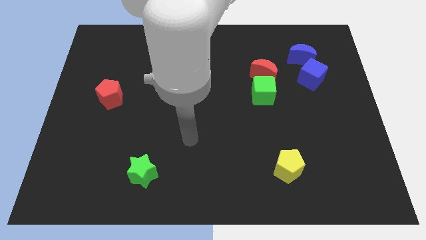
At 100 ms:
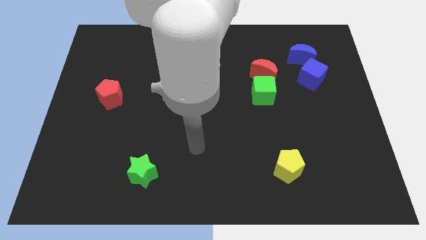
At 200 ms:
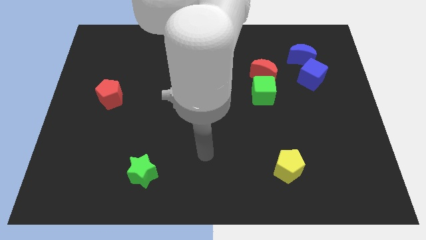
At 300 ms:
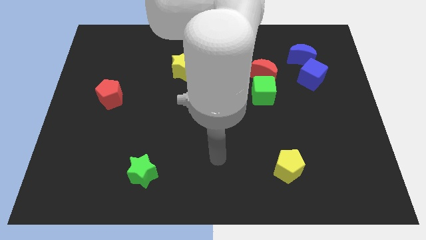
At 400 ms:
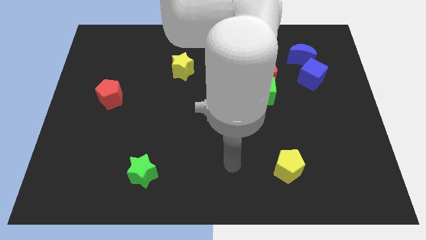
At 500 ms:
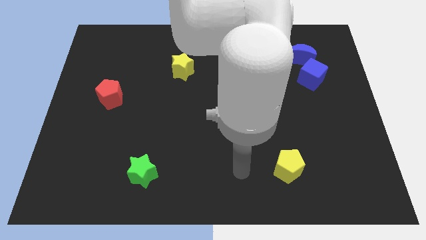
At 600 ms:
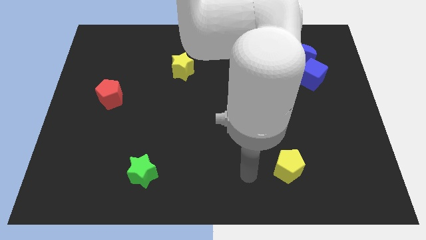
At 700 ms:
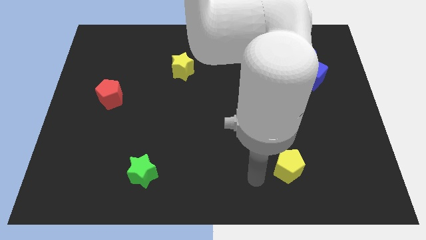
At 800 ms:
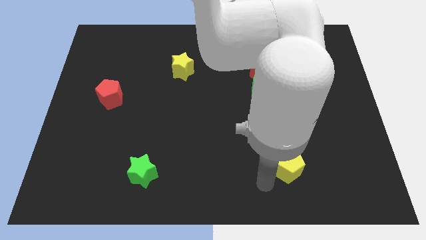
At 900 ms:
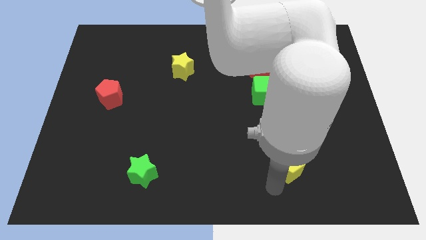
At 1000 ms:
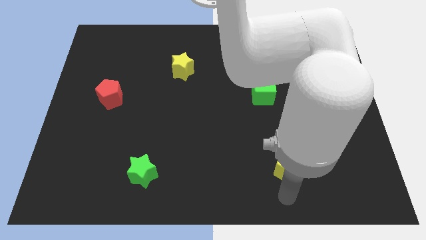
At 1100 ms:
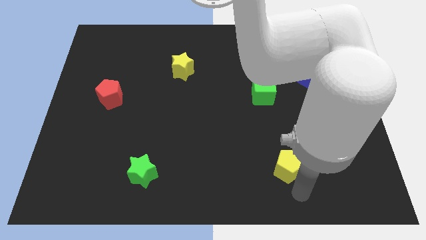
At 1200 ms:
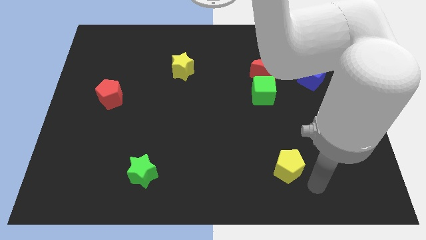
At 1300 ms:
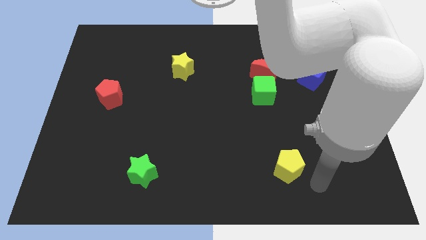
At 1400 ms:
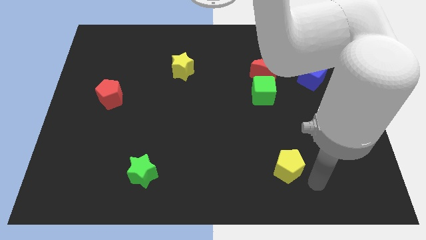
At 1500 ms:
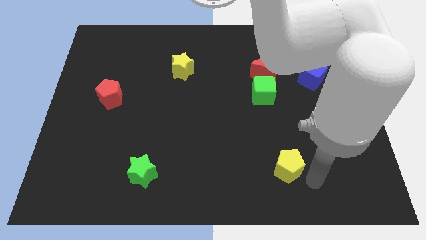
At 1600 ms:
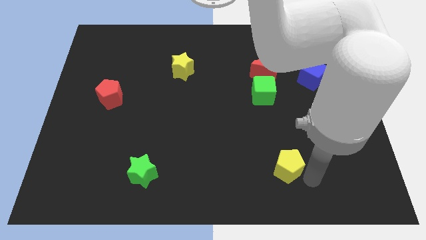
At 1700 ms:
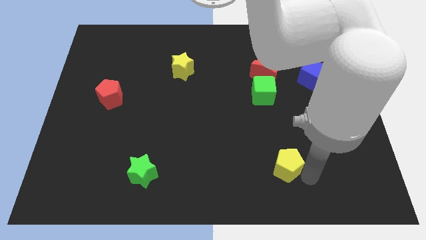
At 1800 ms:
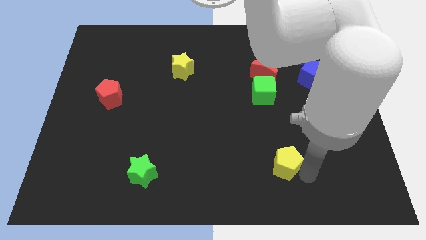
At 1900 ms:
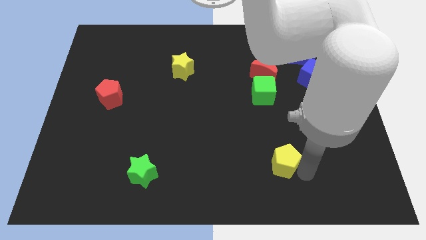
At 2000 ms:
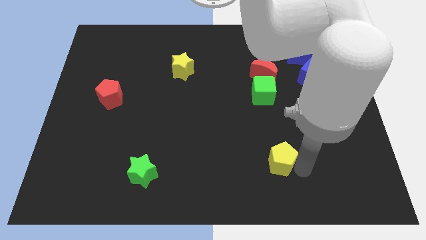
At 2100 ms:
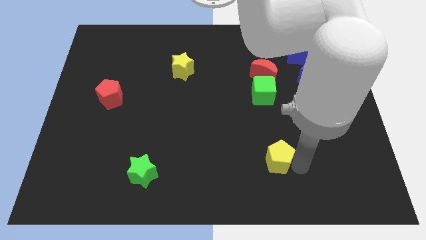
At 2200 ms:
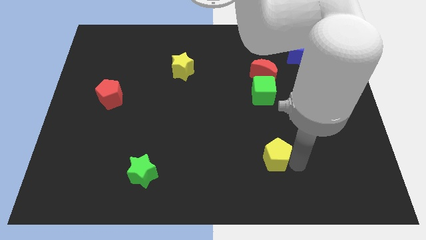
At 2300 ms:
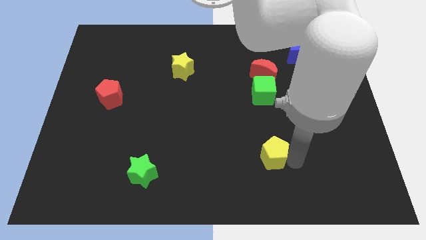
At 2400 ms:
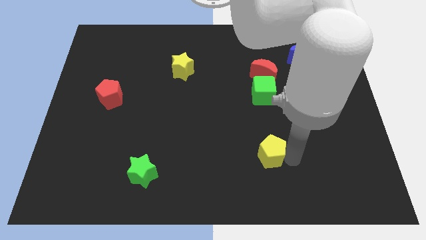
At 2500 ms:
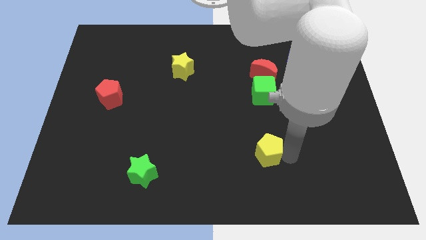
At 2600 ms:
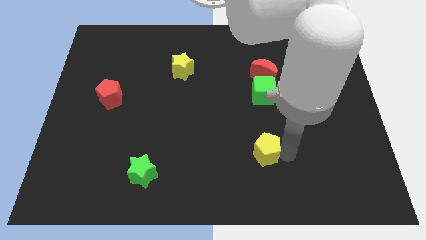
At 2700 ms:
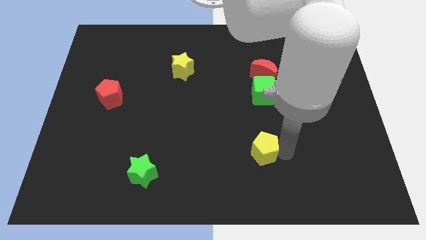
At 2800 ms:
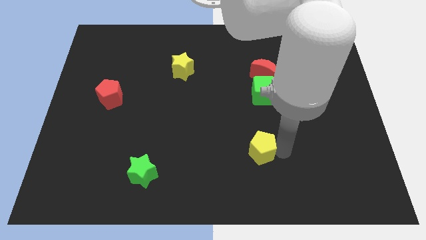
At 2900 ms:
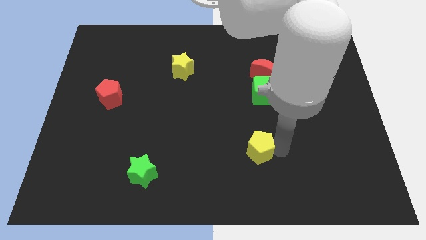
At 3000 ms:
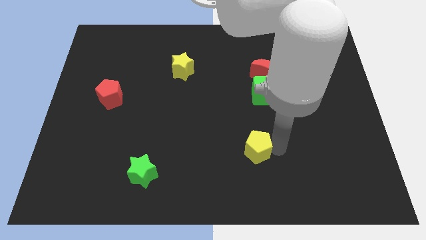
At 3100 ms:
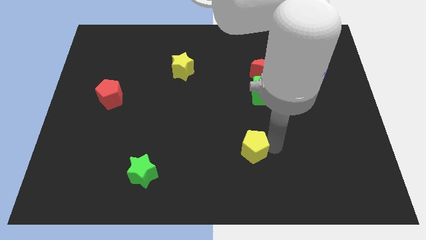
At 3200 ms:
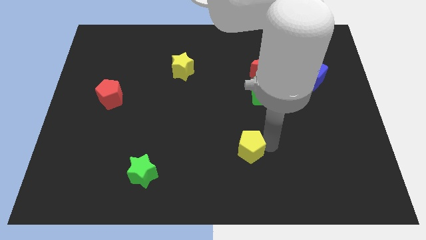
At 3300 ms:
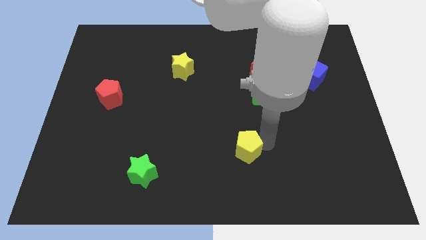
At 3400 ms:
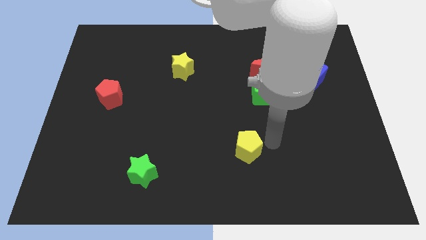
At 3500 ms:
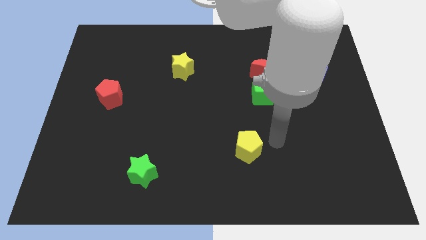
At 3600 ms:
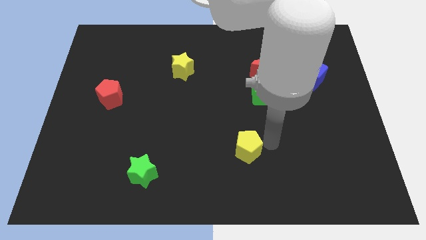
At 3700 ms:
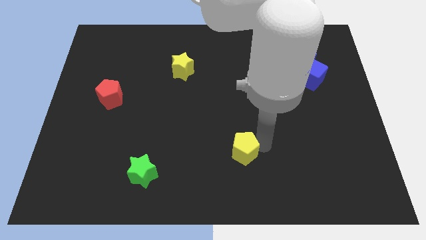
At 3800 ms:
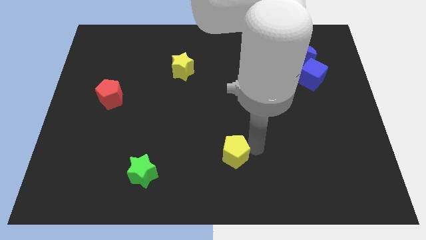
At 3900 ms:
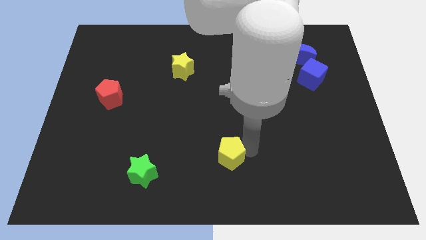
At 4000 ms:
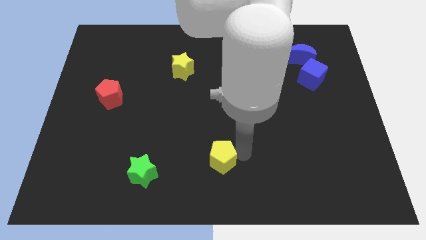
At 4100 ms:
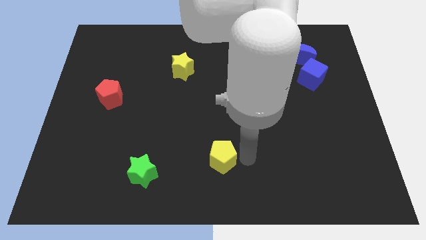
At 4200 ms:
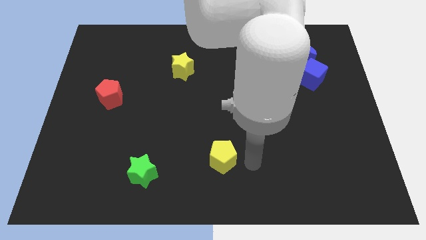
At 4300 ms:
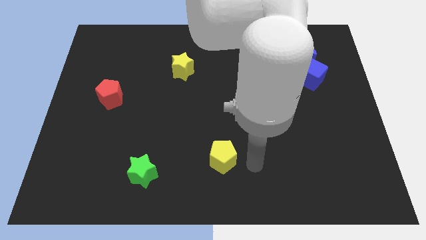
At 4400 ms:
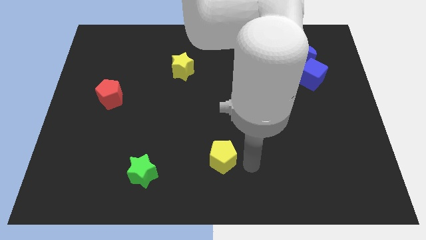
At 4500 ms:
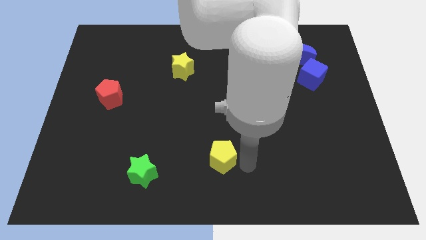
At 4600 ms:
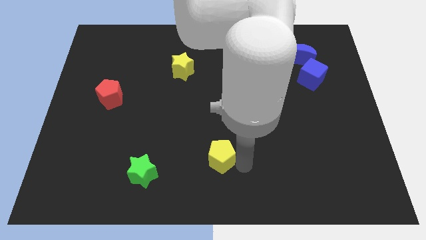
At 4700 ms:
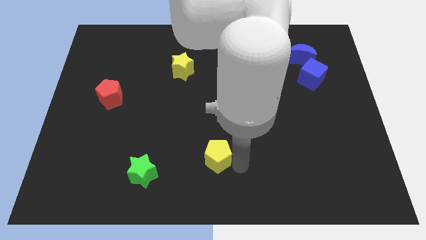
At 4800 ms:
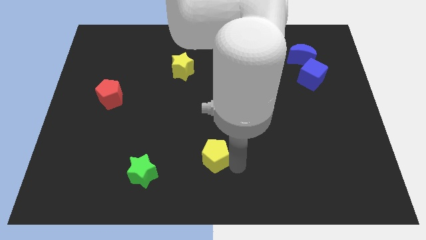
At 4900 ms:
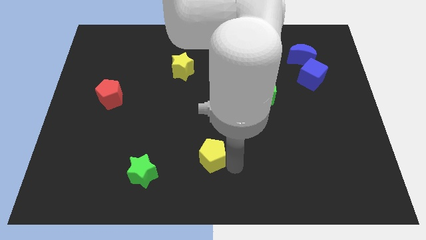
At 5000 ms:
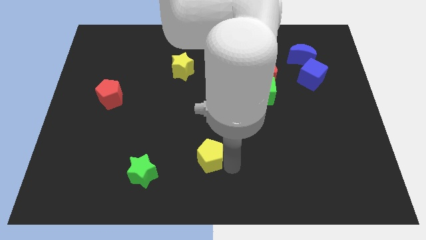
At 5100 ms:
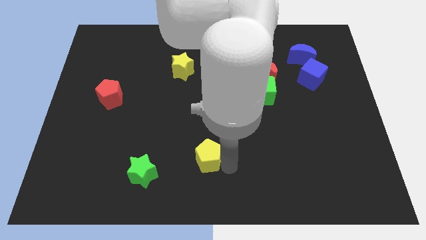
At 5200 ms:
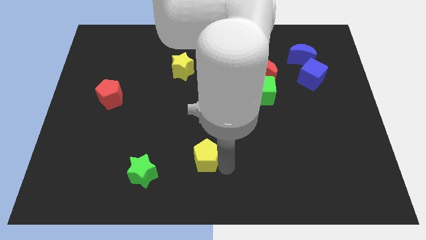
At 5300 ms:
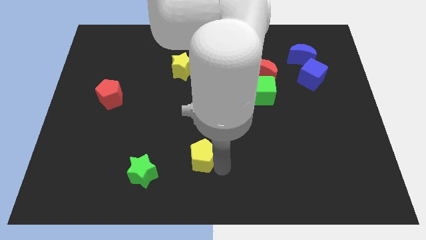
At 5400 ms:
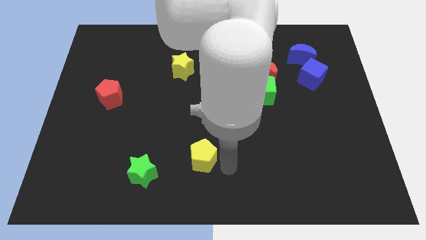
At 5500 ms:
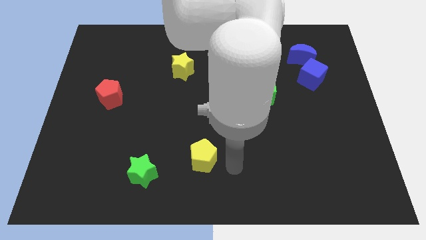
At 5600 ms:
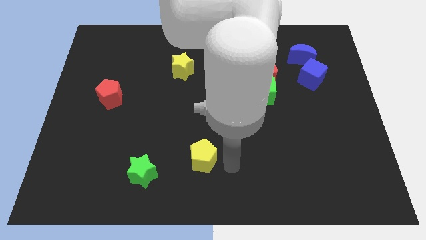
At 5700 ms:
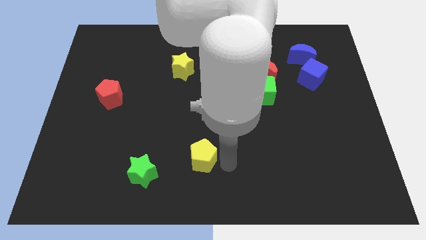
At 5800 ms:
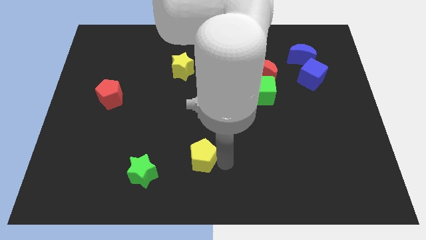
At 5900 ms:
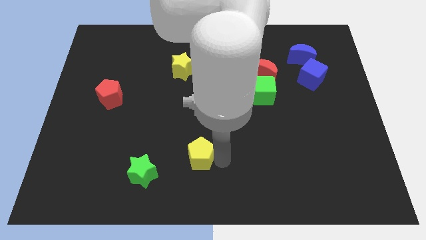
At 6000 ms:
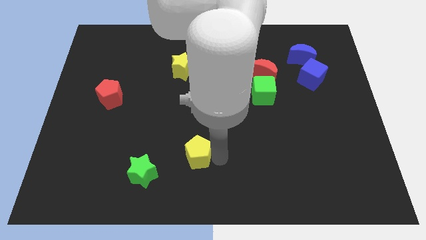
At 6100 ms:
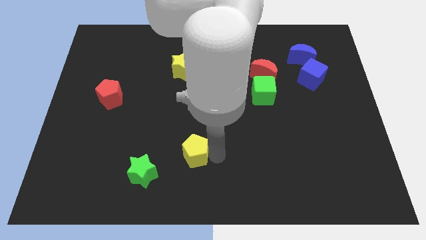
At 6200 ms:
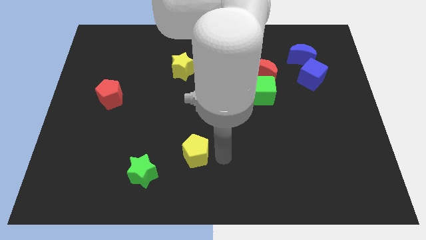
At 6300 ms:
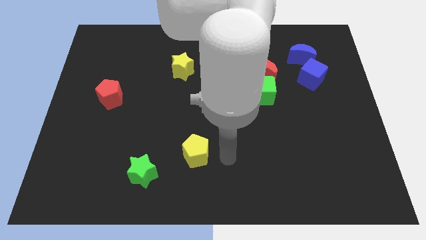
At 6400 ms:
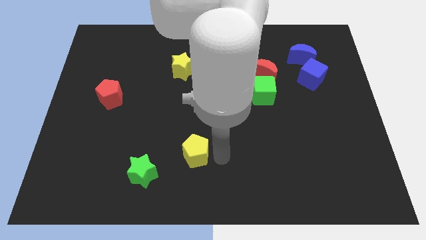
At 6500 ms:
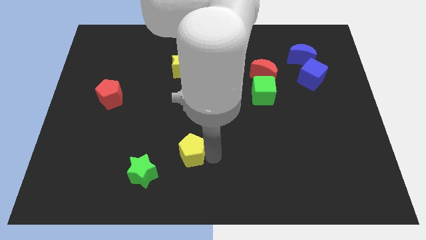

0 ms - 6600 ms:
move the yellow pentagon to the top right side of the green star

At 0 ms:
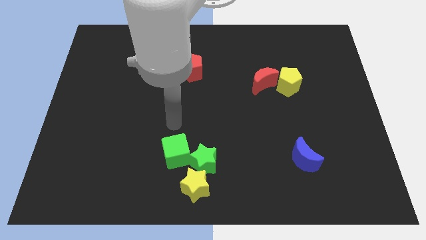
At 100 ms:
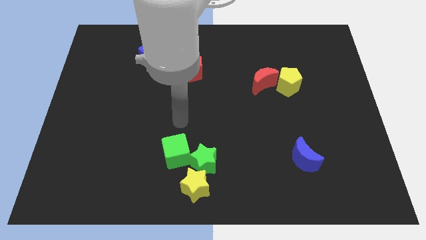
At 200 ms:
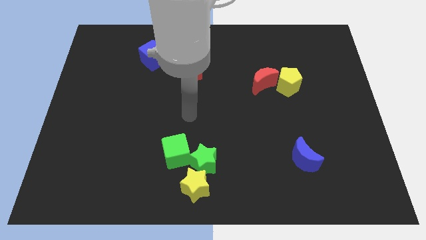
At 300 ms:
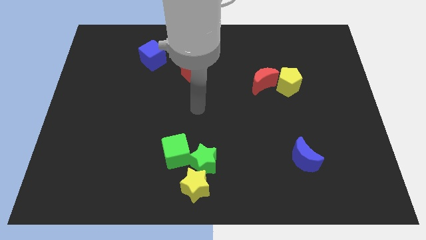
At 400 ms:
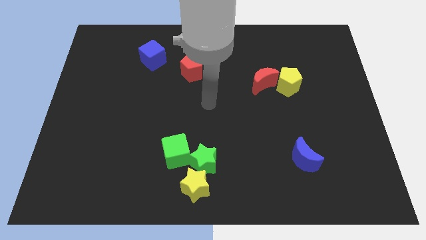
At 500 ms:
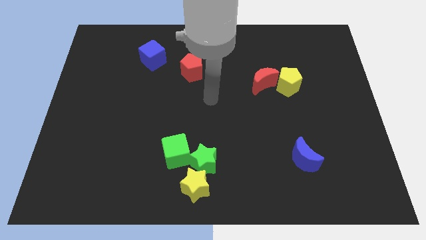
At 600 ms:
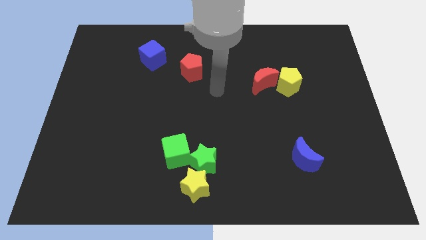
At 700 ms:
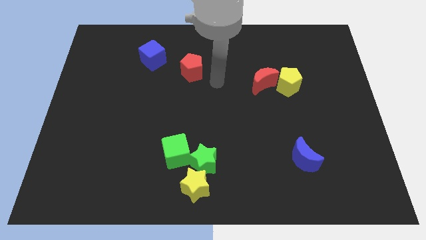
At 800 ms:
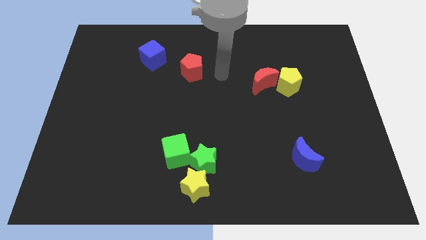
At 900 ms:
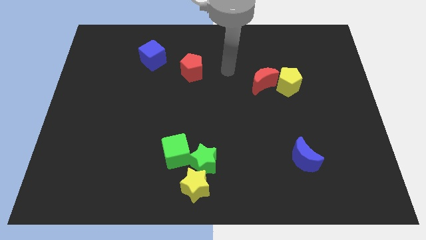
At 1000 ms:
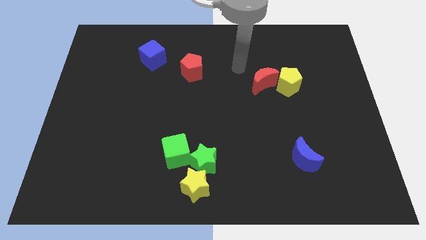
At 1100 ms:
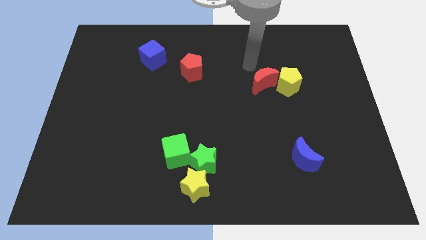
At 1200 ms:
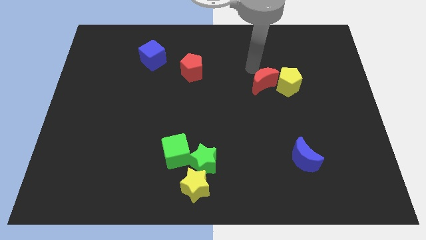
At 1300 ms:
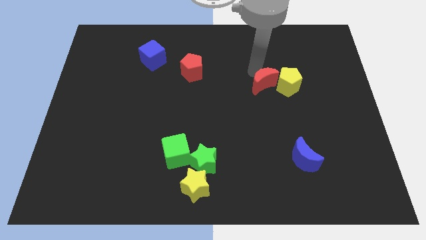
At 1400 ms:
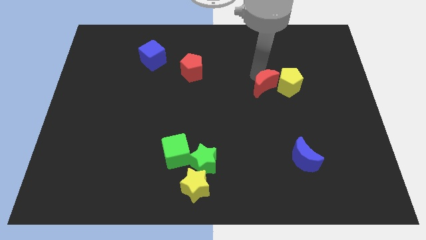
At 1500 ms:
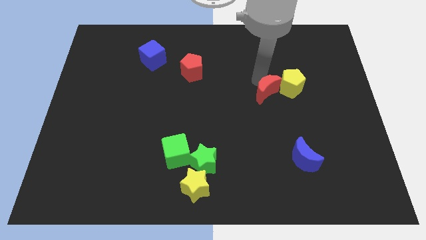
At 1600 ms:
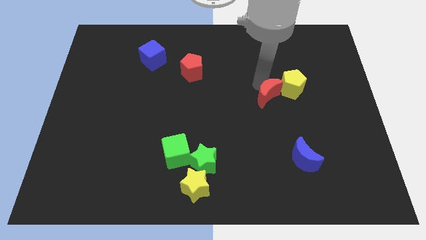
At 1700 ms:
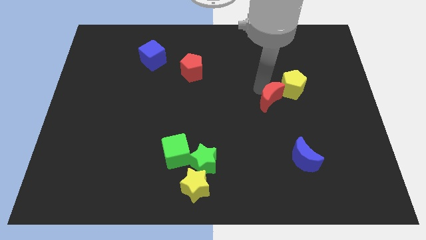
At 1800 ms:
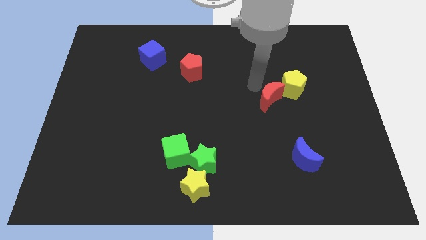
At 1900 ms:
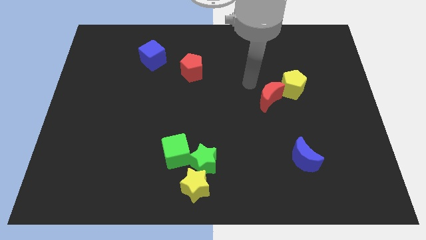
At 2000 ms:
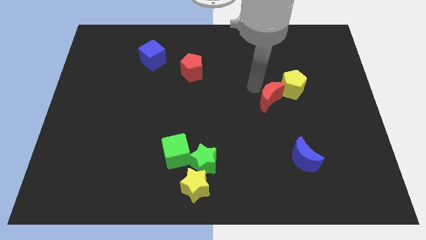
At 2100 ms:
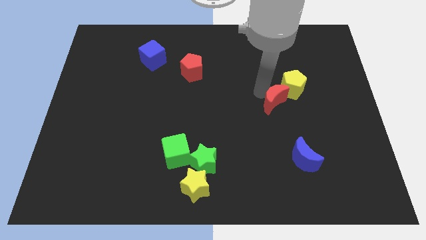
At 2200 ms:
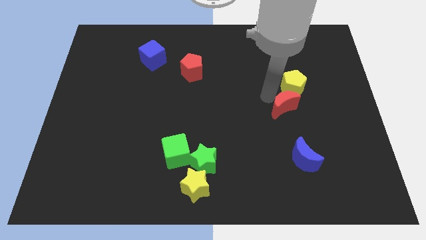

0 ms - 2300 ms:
push the red moon below the yellow pentagon
